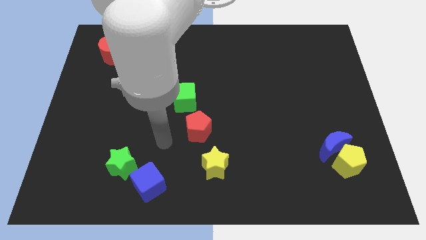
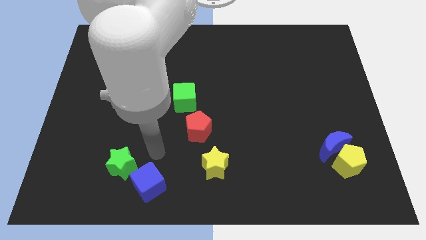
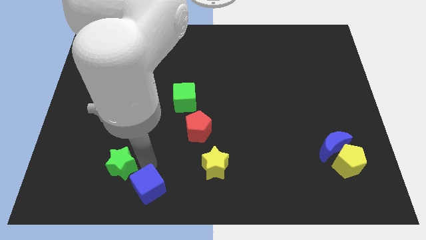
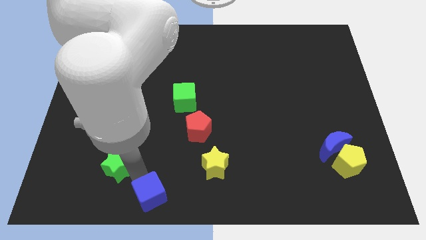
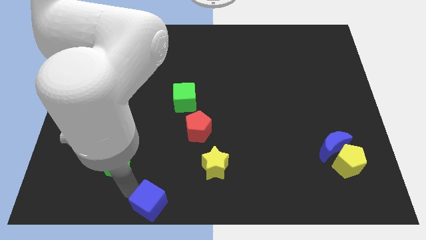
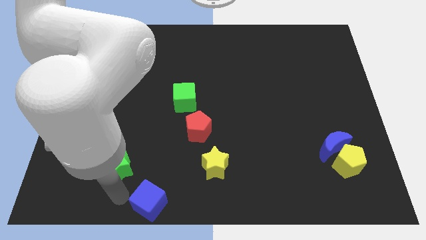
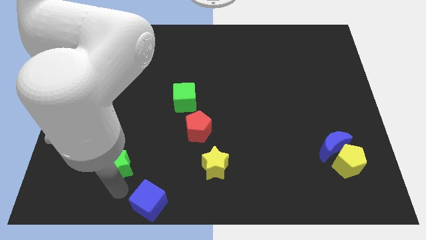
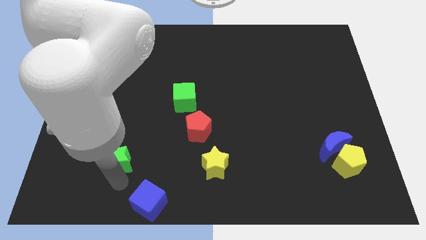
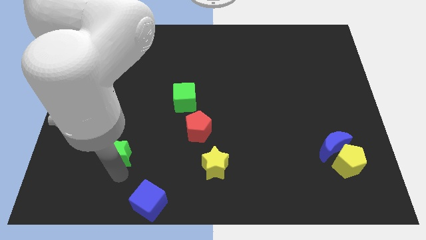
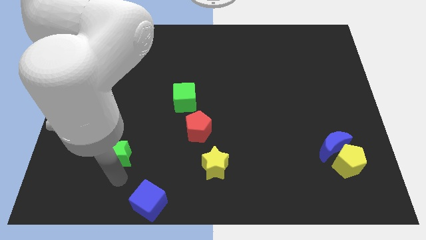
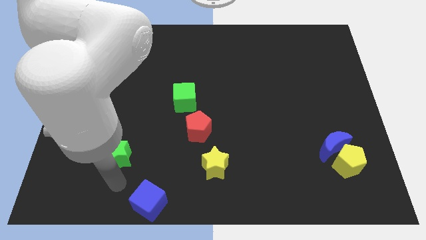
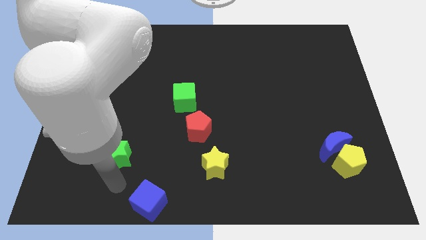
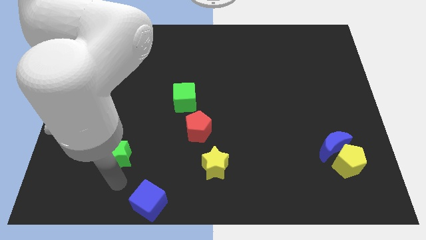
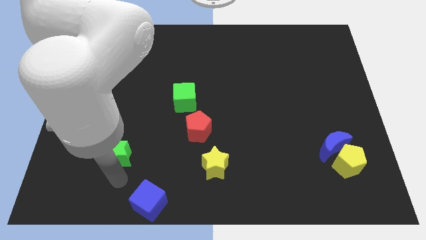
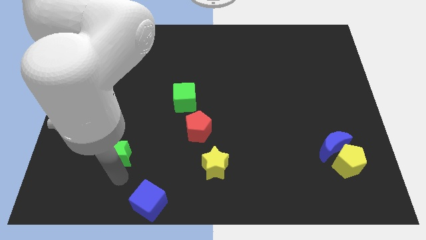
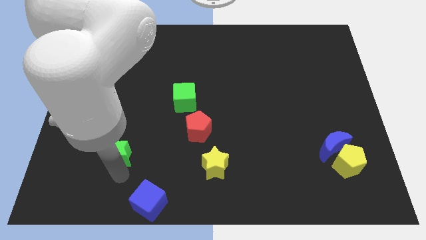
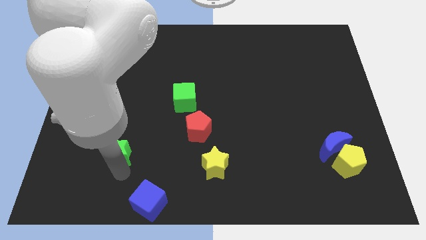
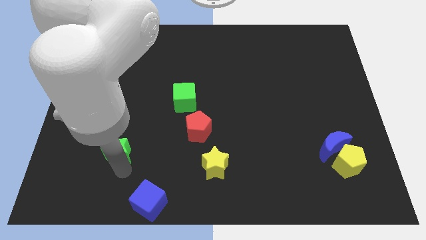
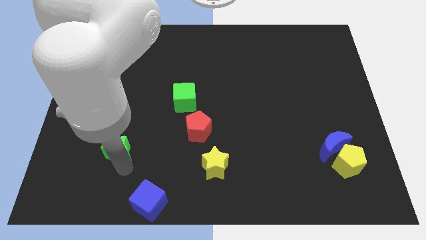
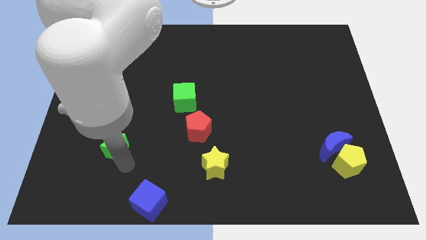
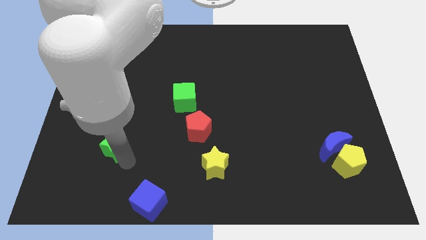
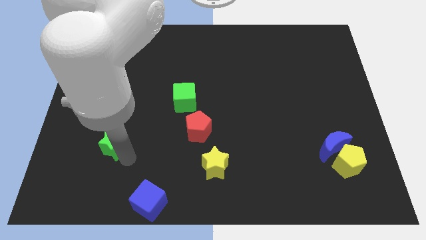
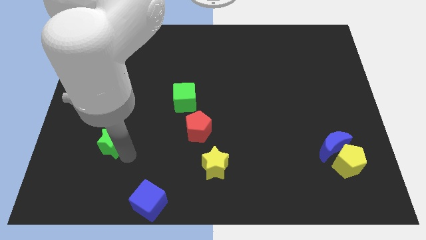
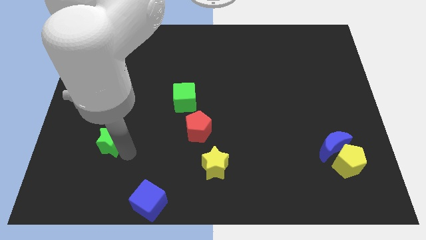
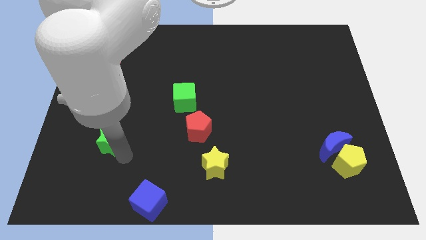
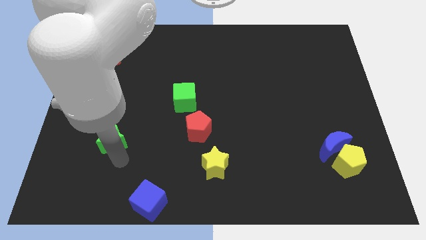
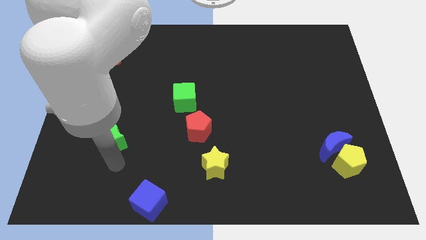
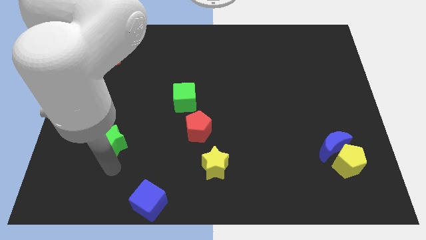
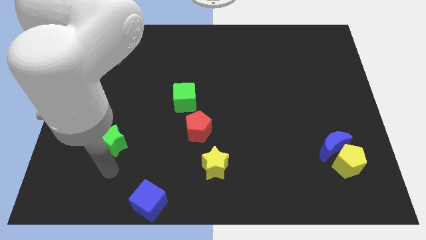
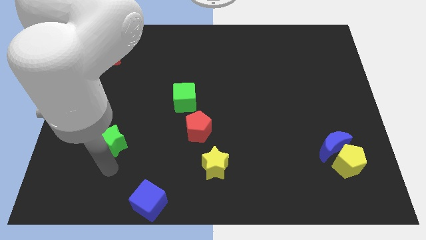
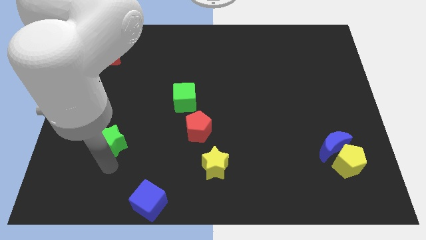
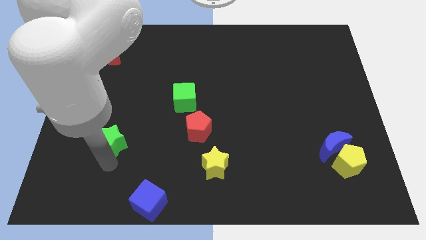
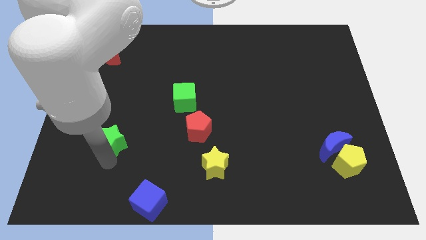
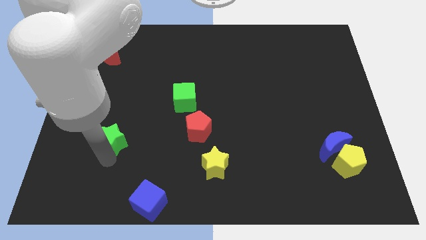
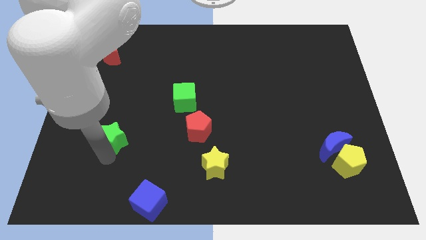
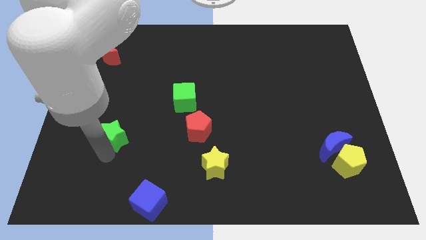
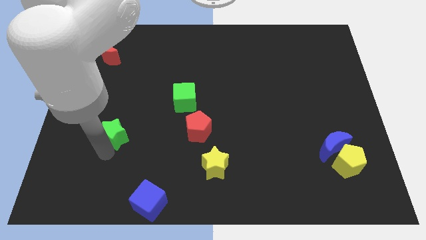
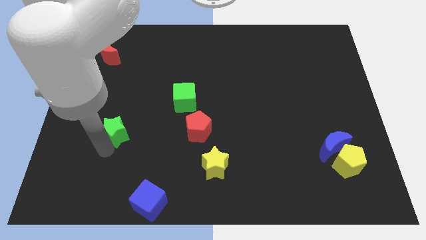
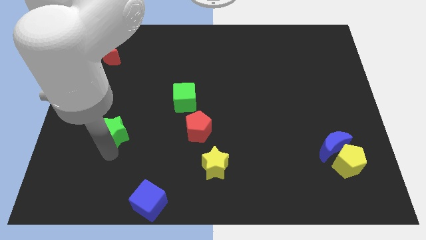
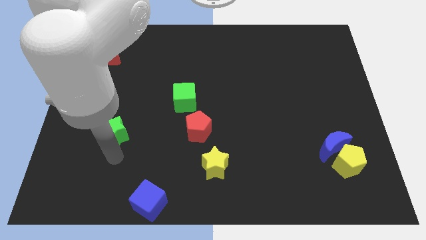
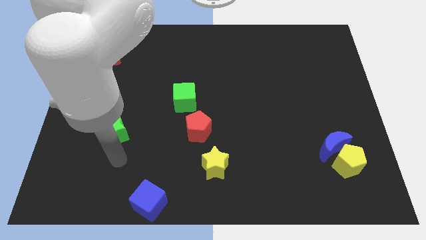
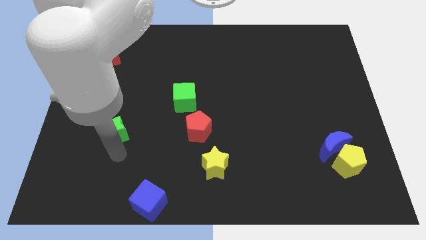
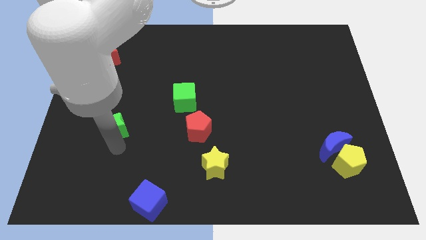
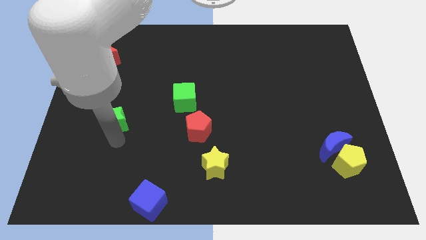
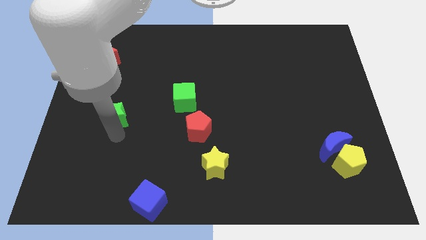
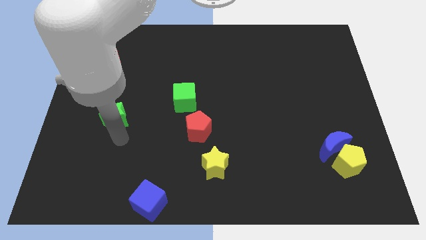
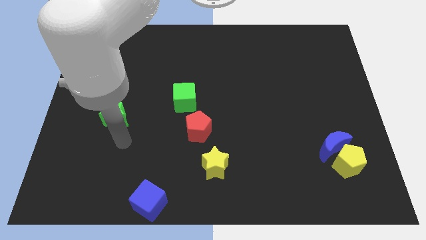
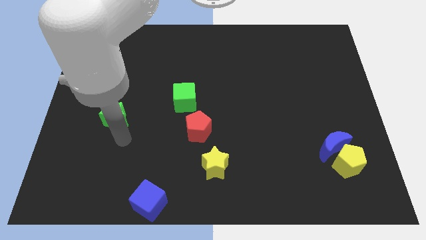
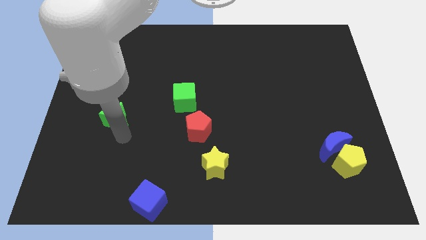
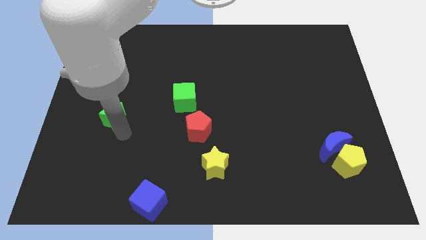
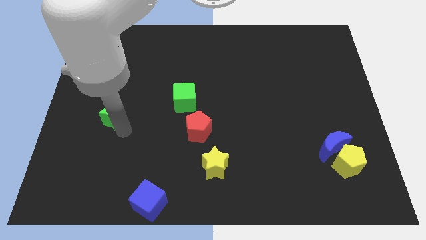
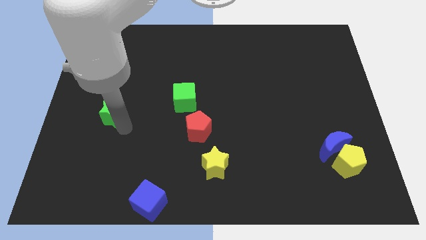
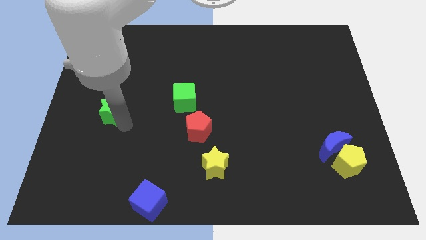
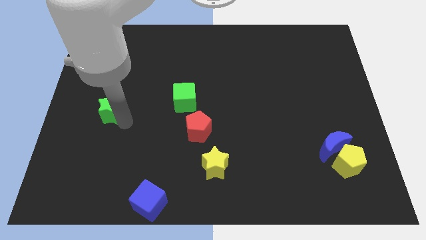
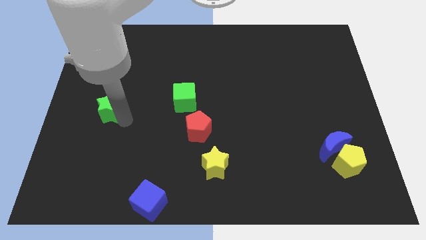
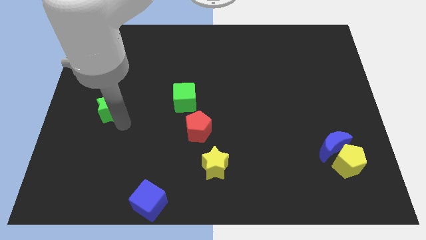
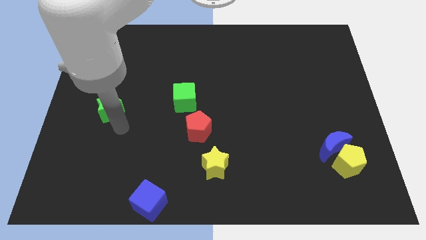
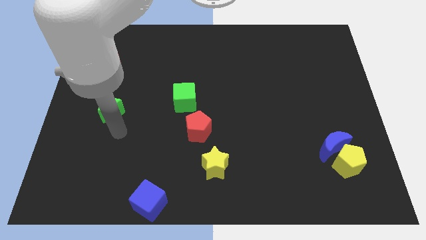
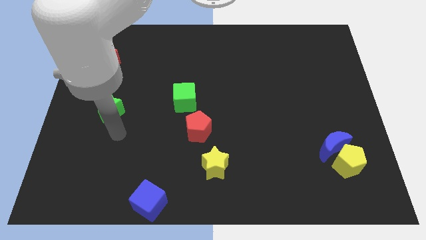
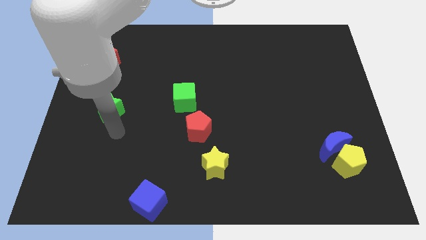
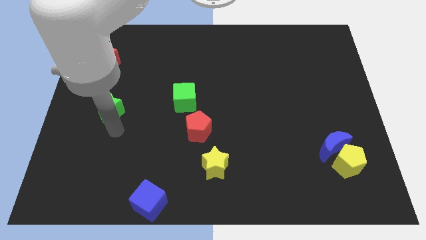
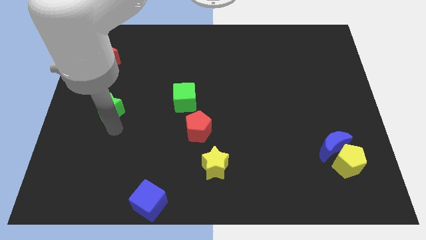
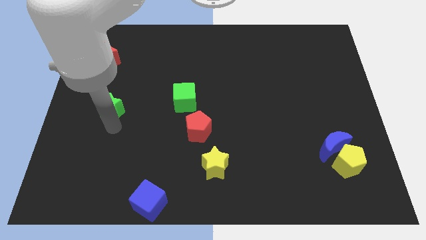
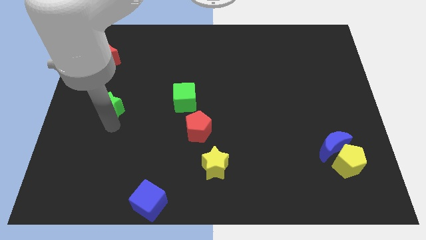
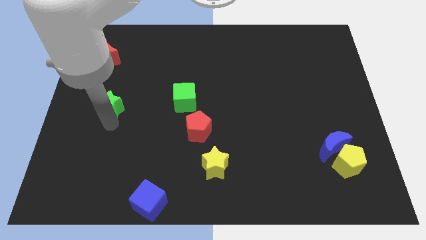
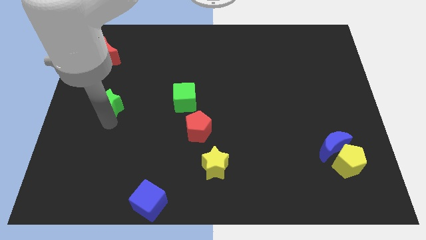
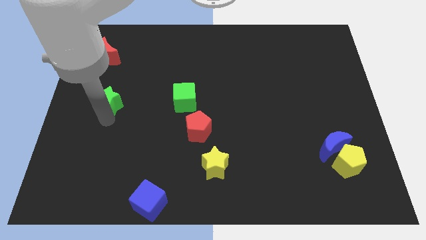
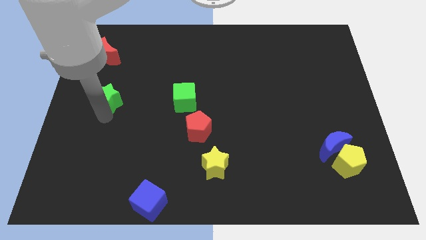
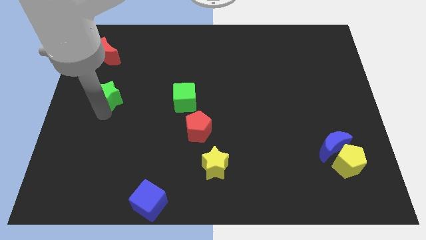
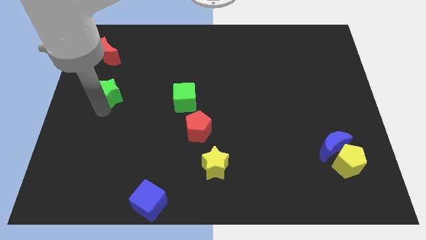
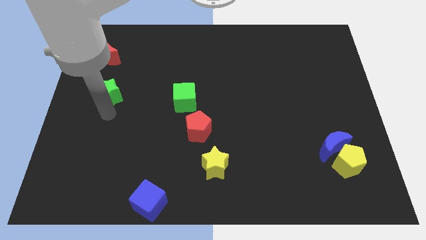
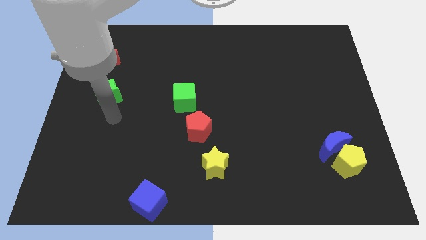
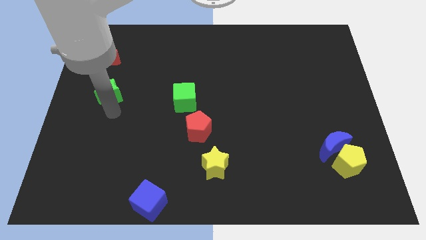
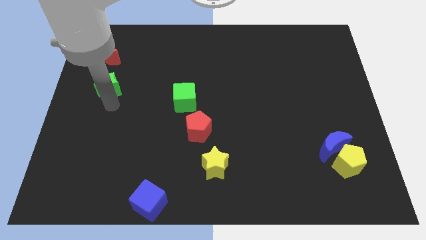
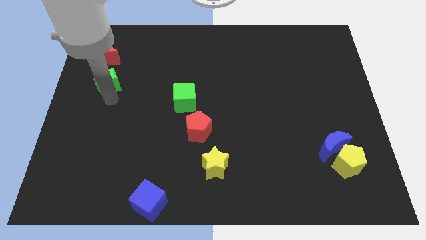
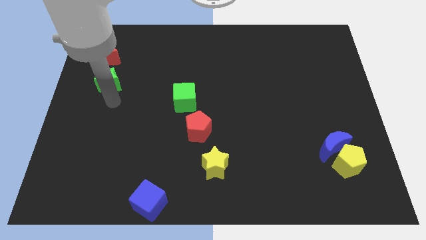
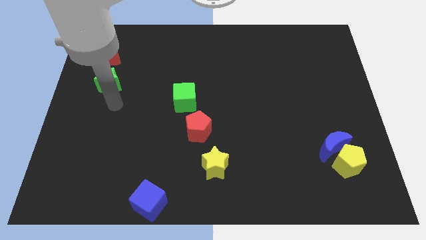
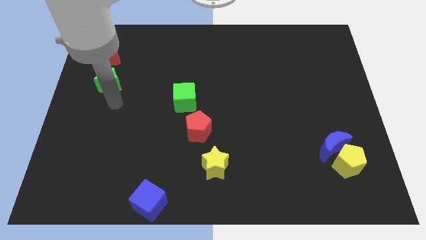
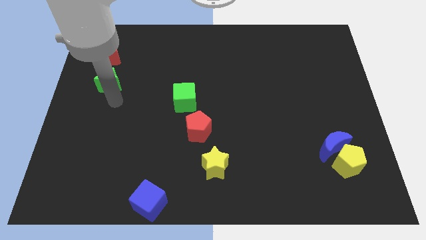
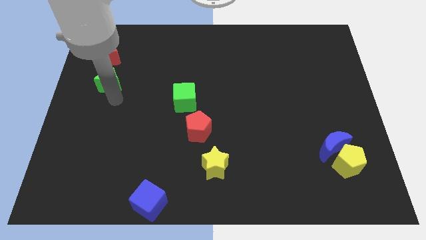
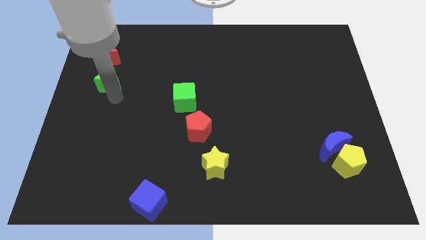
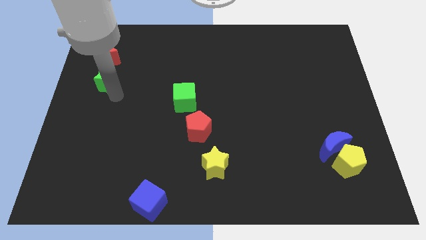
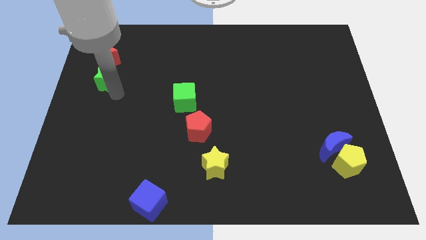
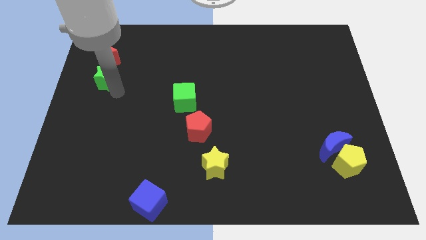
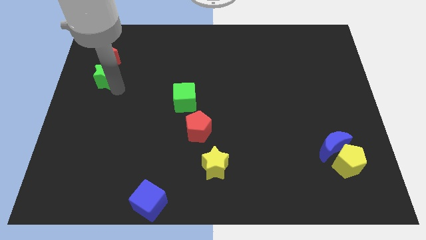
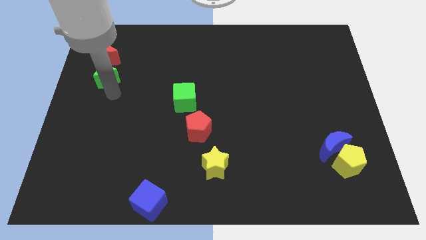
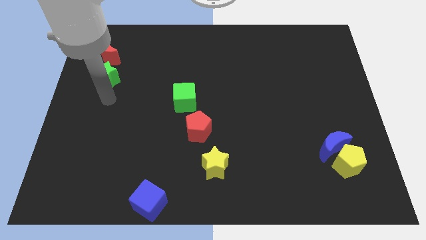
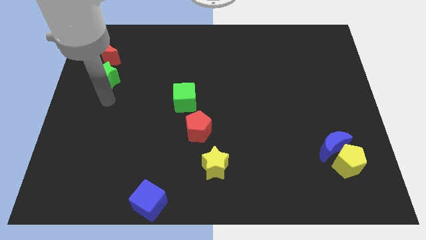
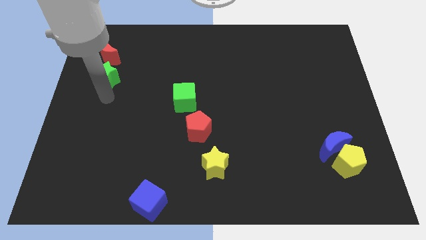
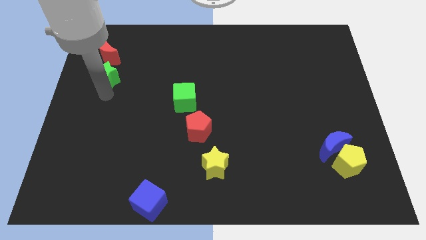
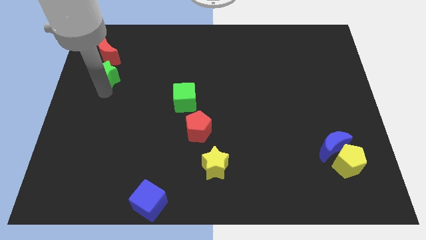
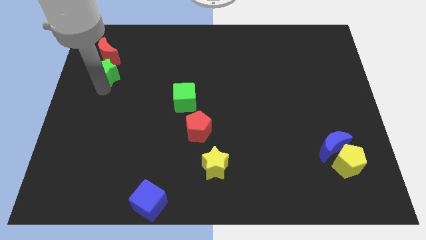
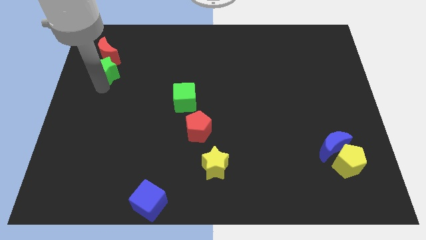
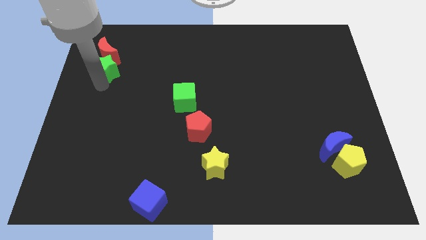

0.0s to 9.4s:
slide the green star close to the red moon
